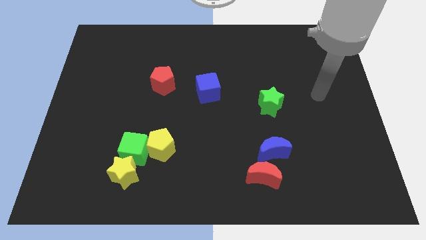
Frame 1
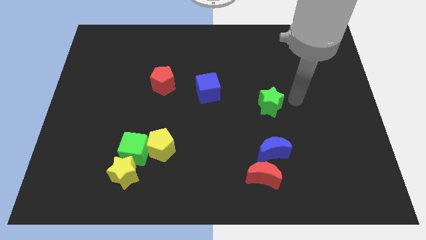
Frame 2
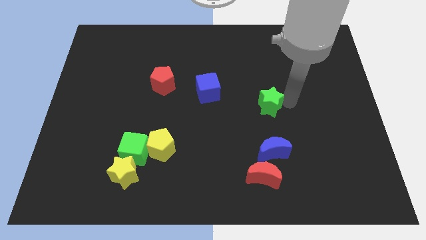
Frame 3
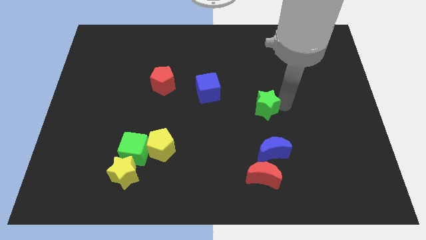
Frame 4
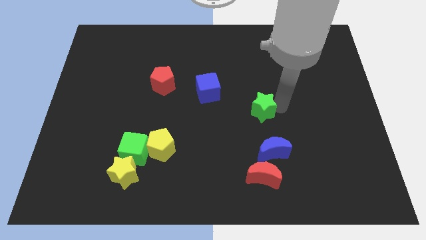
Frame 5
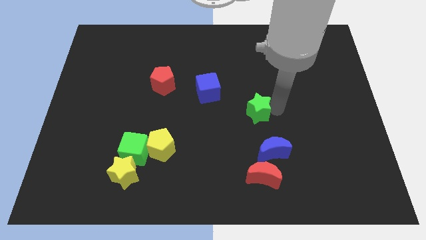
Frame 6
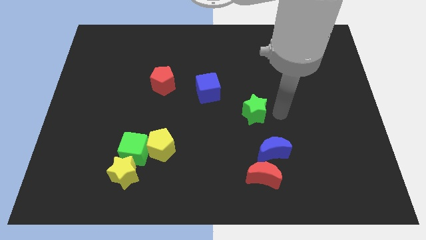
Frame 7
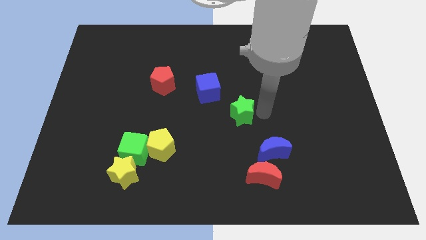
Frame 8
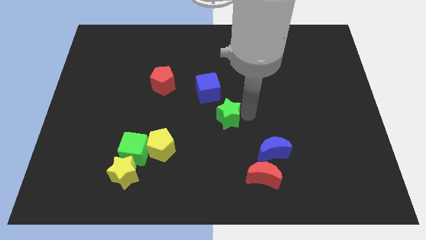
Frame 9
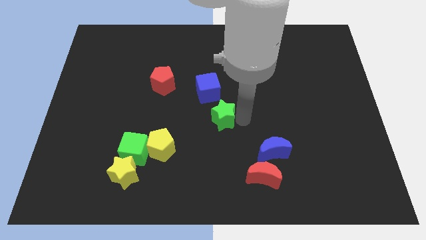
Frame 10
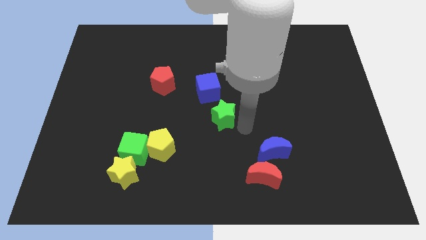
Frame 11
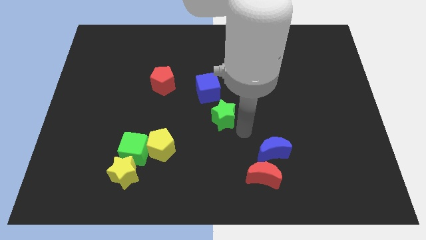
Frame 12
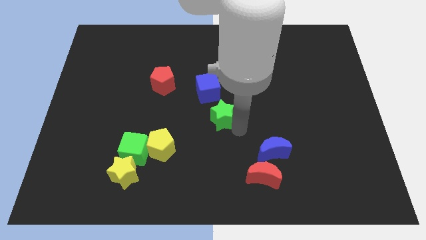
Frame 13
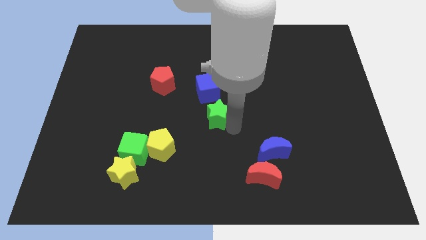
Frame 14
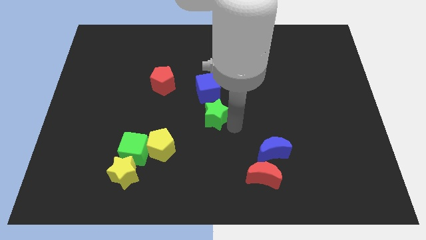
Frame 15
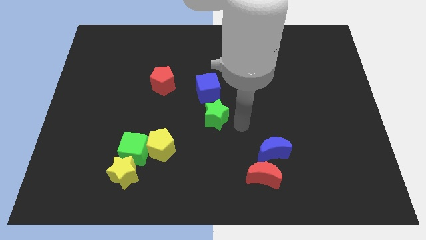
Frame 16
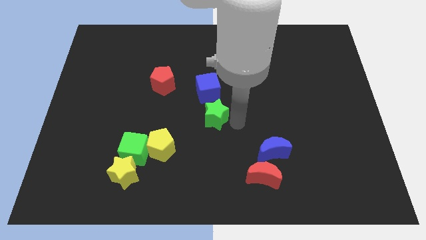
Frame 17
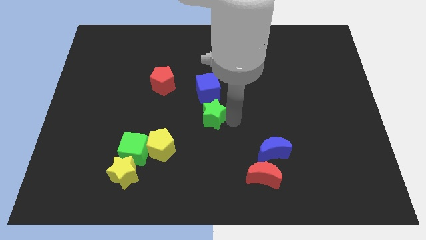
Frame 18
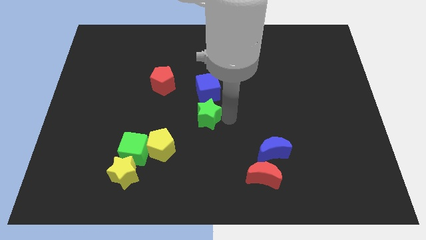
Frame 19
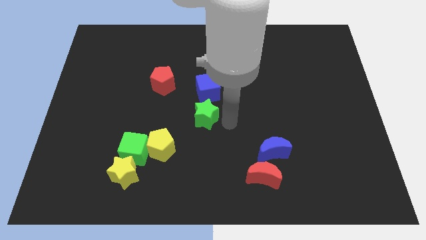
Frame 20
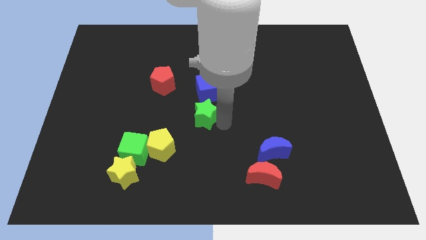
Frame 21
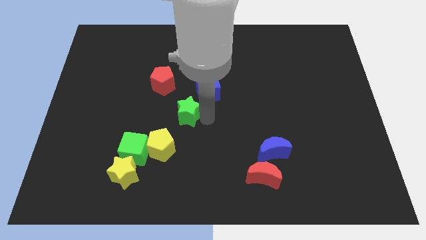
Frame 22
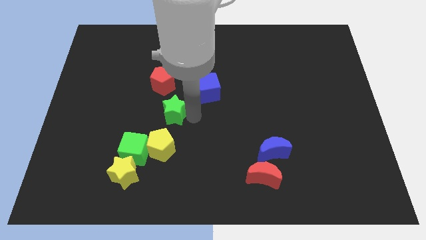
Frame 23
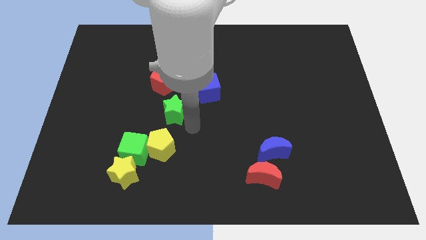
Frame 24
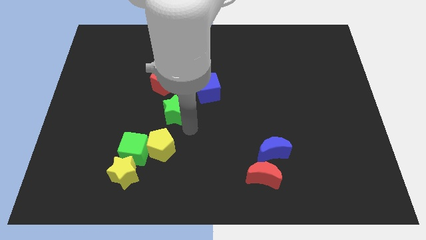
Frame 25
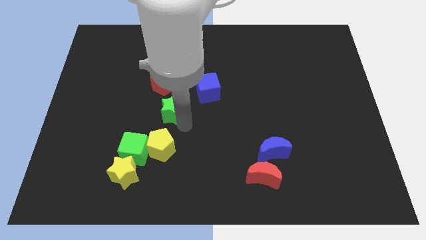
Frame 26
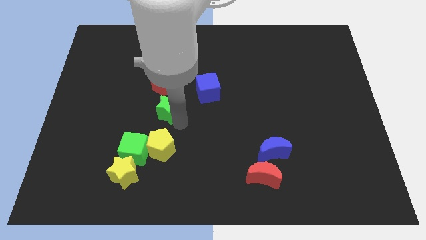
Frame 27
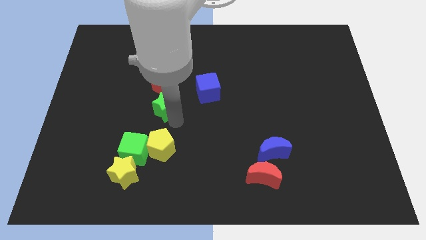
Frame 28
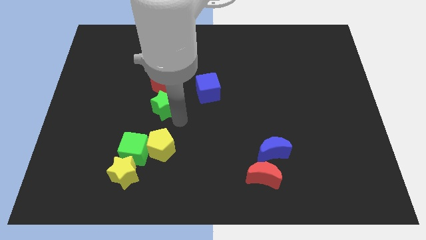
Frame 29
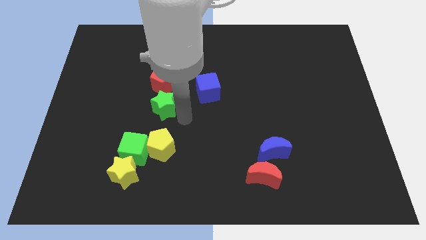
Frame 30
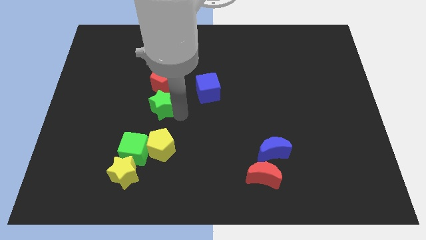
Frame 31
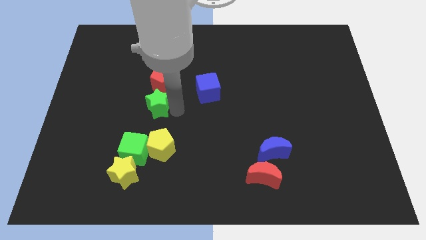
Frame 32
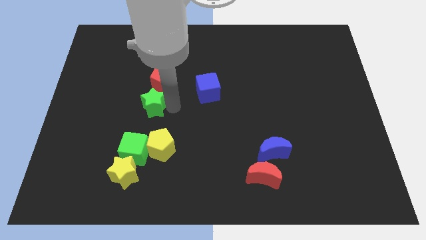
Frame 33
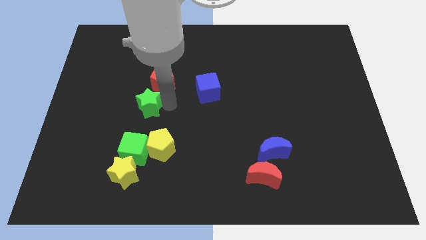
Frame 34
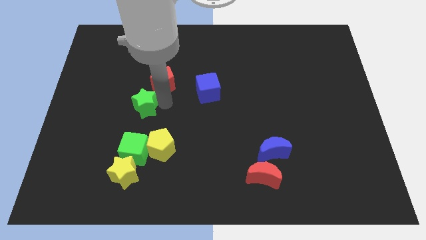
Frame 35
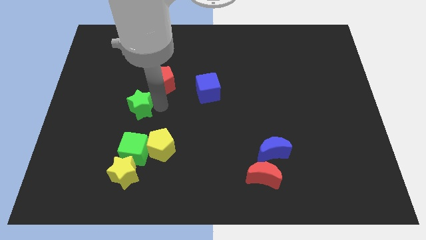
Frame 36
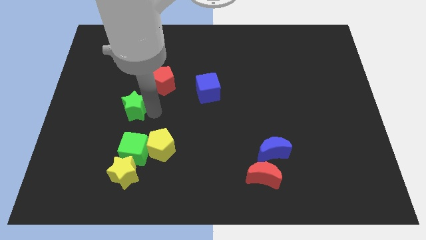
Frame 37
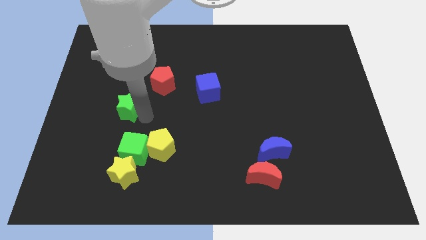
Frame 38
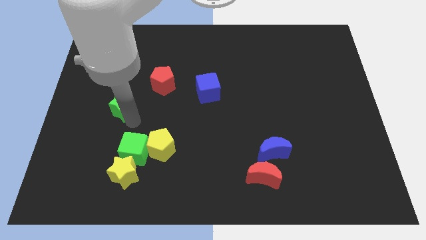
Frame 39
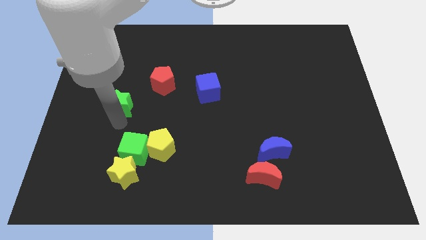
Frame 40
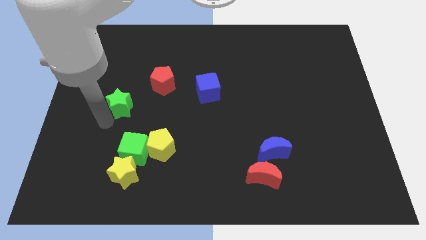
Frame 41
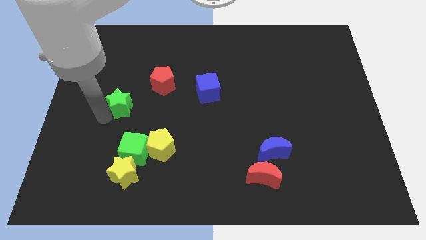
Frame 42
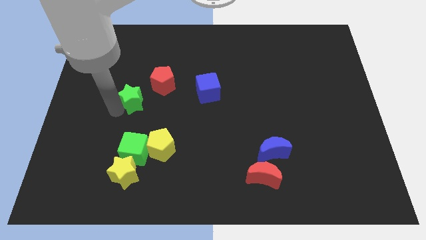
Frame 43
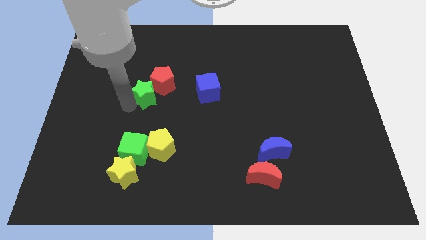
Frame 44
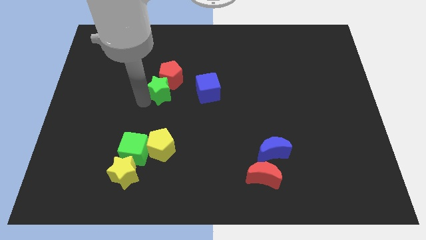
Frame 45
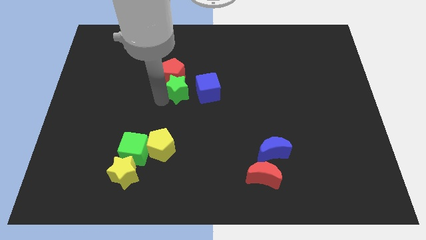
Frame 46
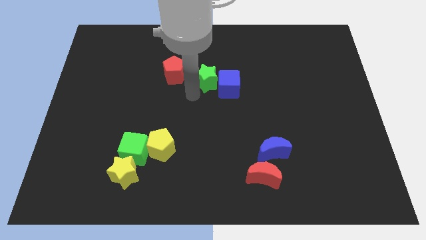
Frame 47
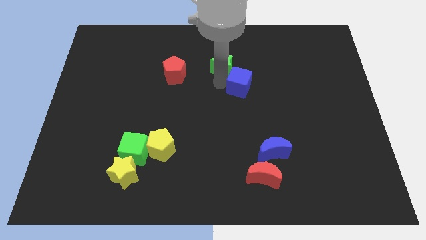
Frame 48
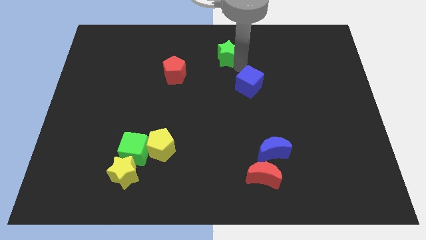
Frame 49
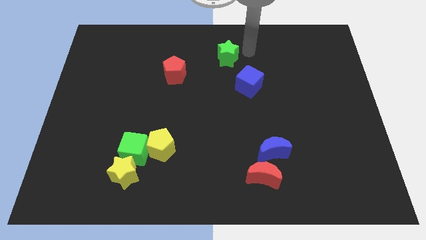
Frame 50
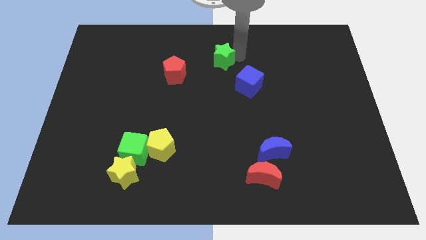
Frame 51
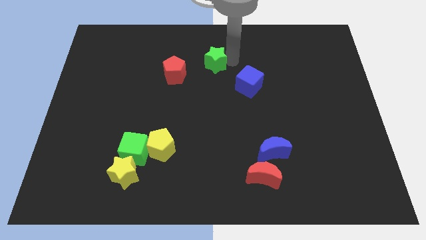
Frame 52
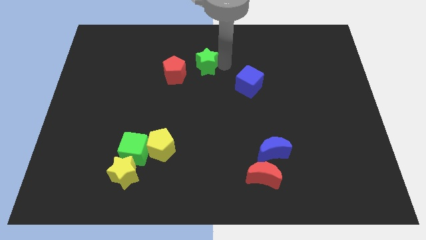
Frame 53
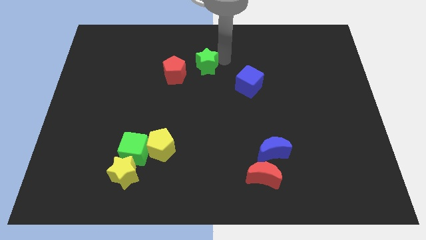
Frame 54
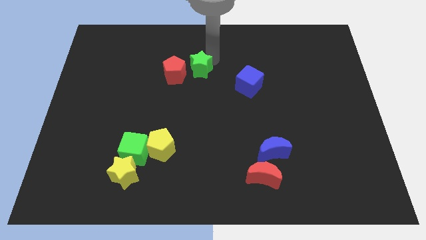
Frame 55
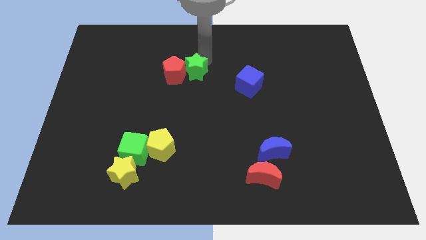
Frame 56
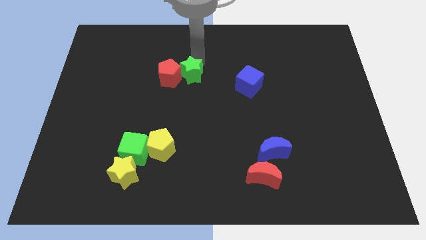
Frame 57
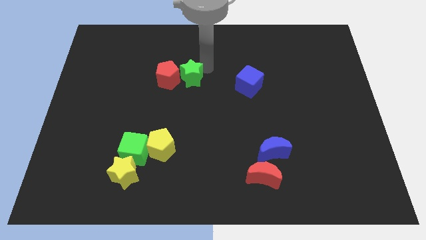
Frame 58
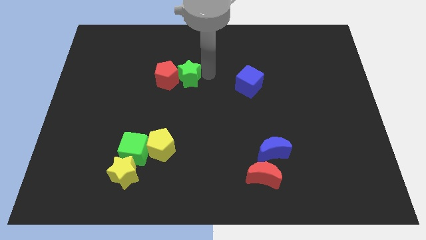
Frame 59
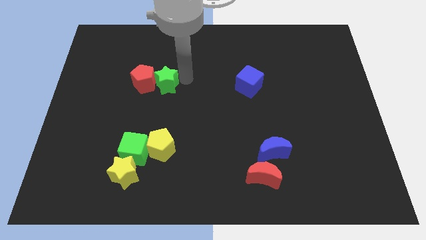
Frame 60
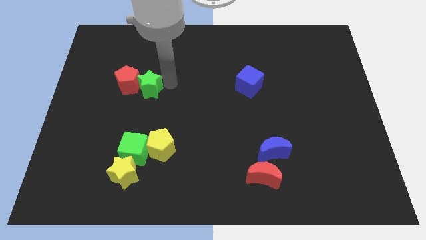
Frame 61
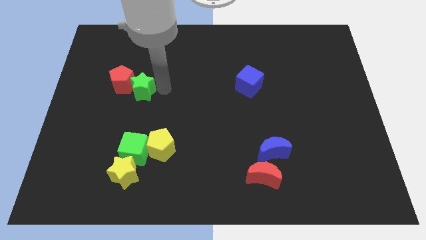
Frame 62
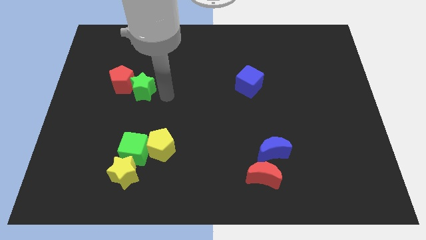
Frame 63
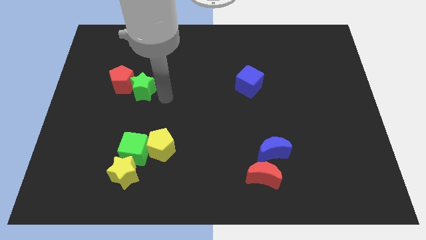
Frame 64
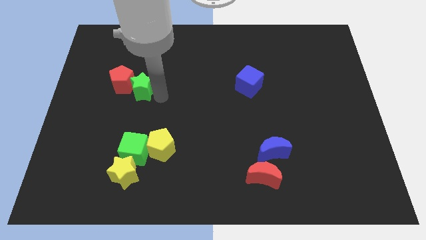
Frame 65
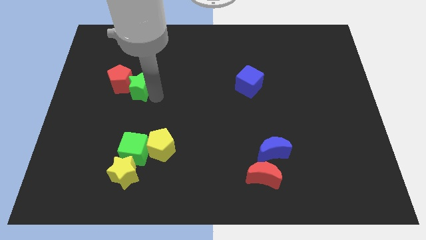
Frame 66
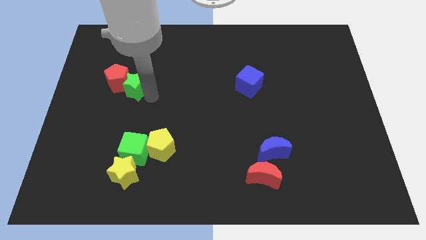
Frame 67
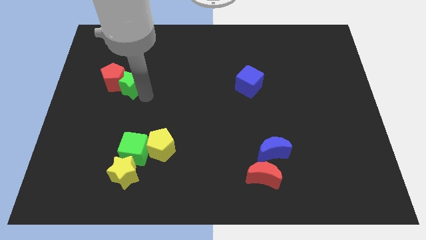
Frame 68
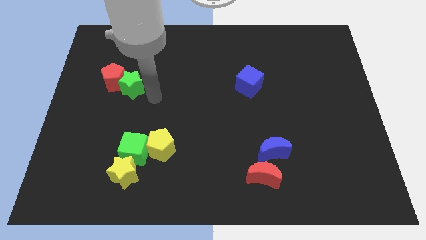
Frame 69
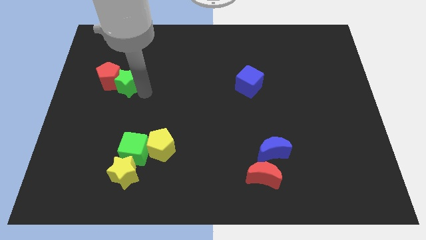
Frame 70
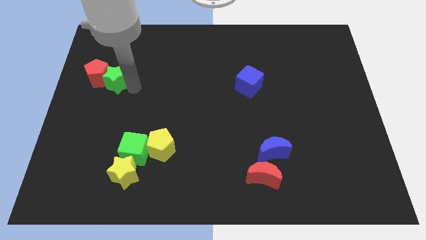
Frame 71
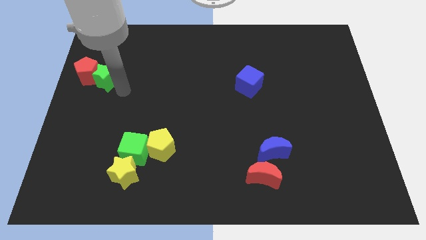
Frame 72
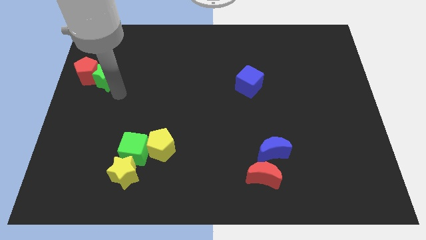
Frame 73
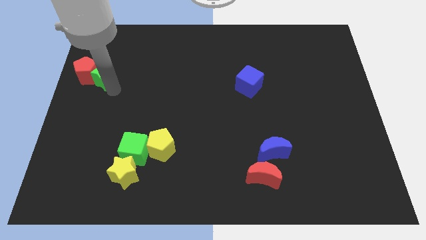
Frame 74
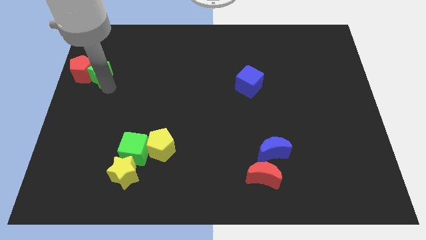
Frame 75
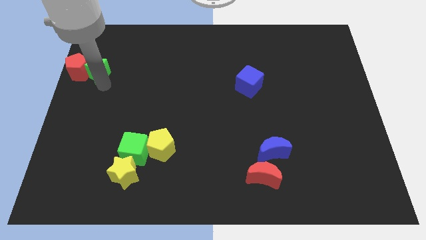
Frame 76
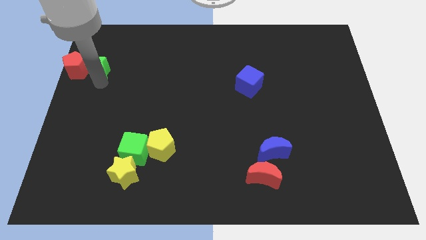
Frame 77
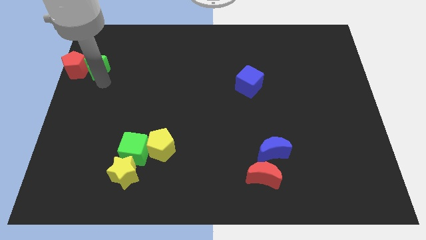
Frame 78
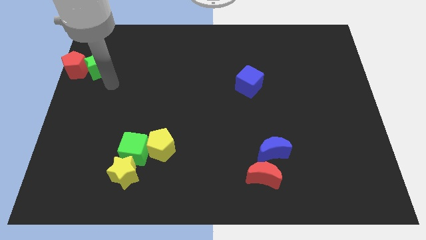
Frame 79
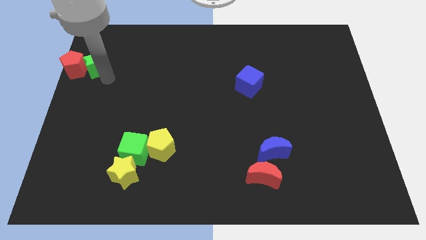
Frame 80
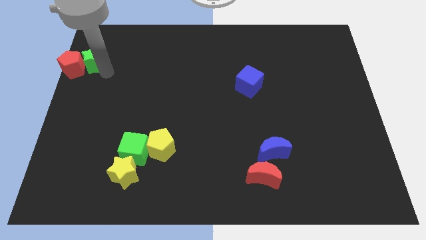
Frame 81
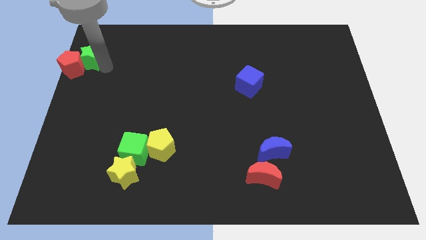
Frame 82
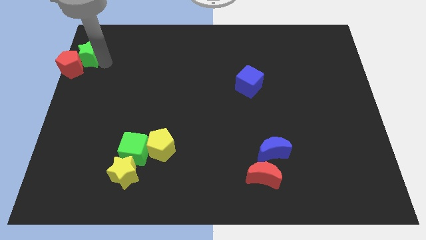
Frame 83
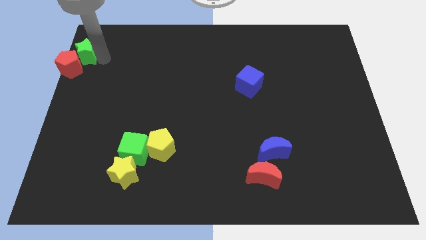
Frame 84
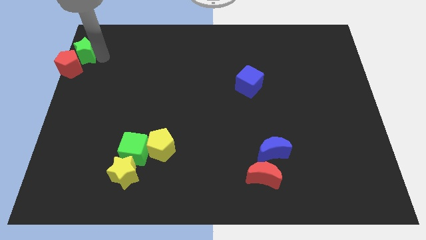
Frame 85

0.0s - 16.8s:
slide the green star to the top left of the board
